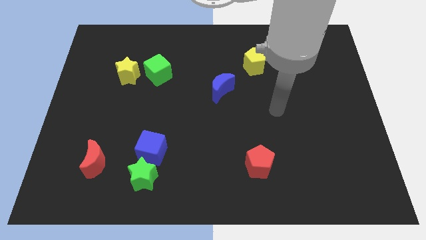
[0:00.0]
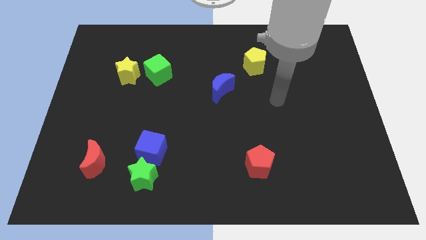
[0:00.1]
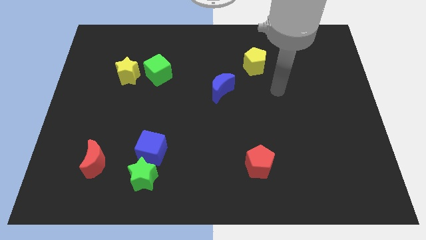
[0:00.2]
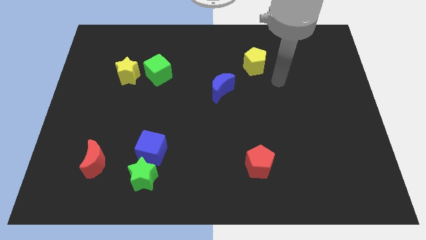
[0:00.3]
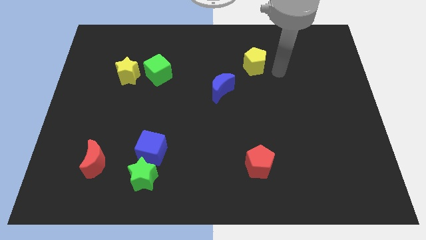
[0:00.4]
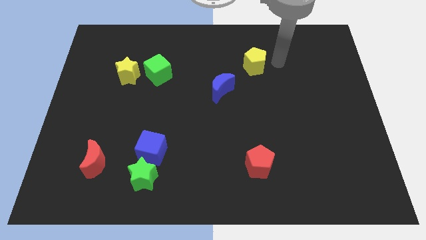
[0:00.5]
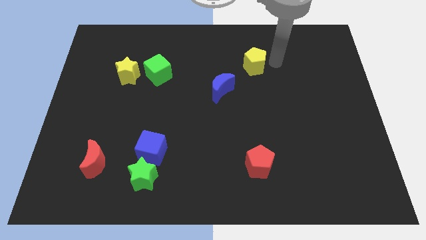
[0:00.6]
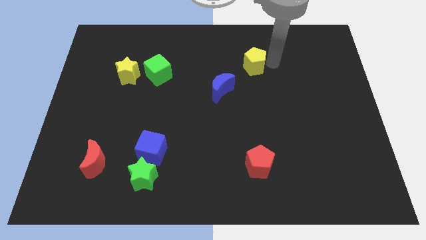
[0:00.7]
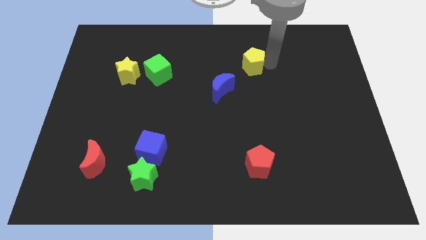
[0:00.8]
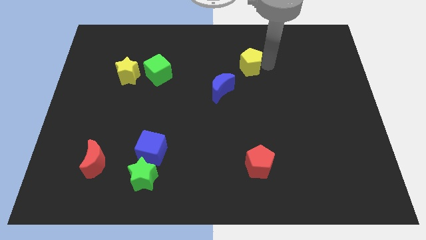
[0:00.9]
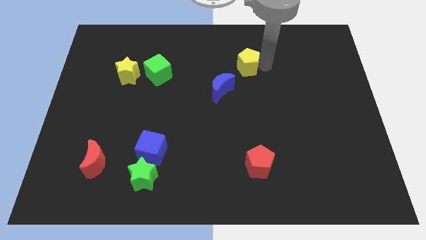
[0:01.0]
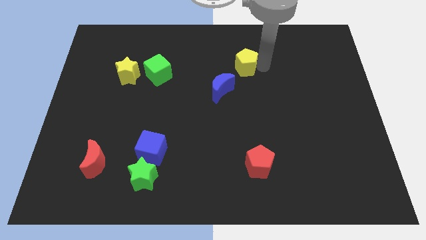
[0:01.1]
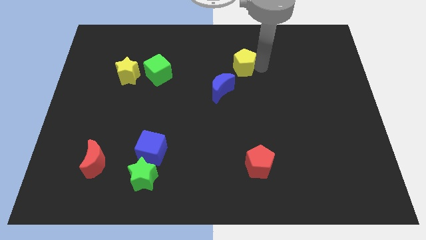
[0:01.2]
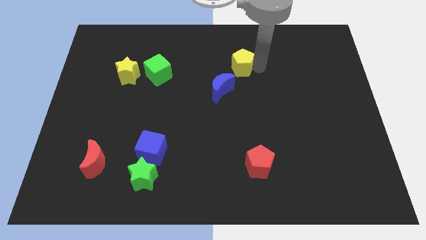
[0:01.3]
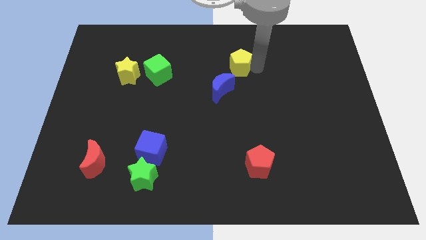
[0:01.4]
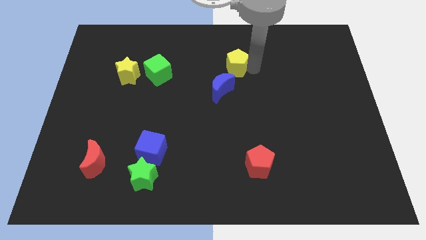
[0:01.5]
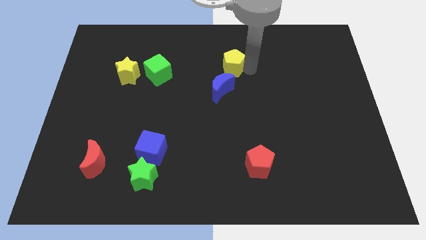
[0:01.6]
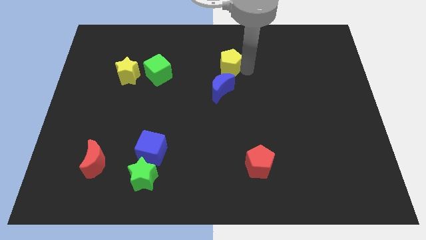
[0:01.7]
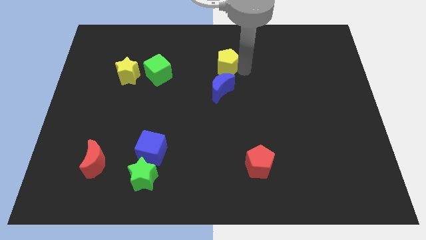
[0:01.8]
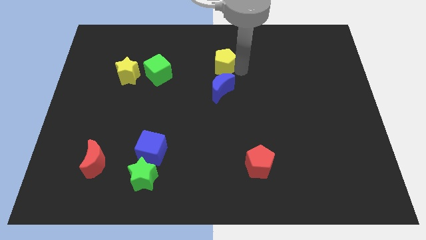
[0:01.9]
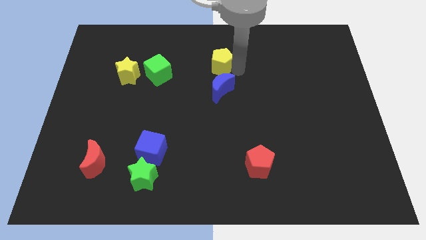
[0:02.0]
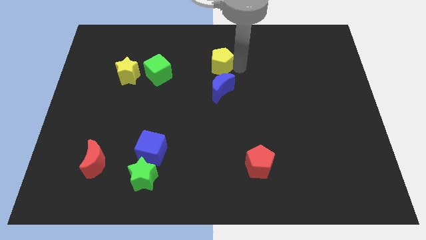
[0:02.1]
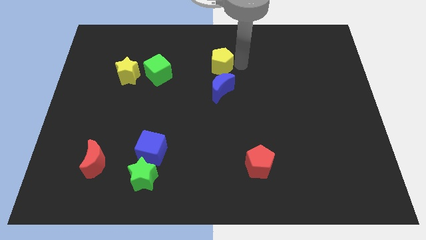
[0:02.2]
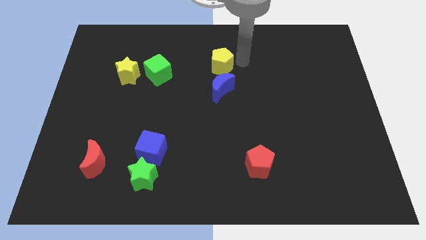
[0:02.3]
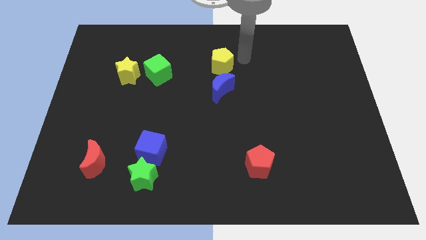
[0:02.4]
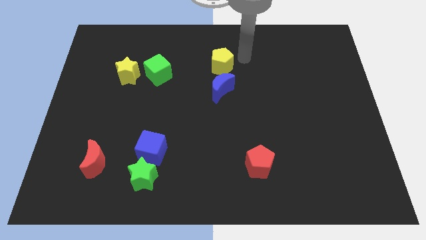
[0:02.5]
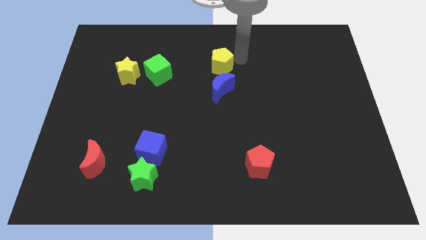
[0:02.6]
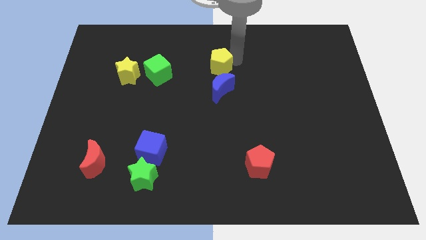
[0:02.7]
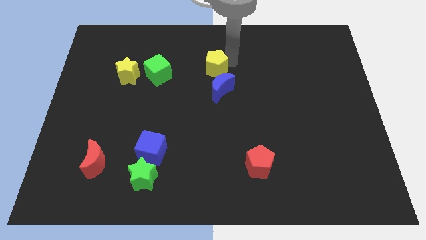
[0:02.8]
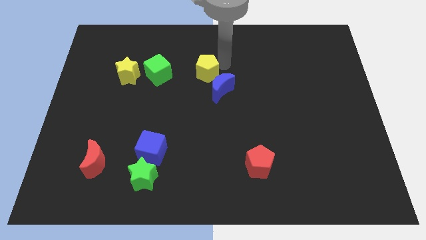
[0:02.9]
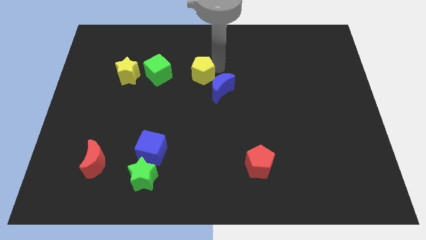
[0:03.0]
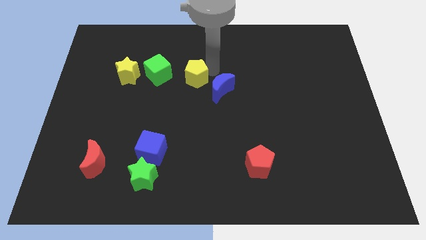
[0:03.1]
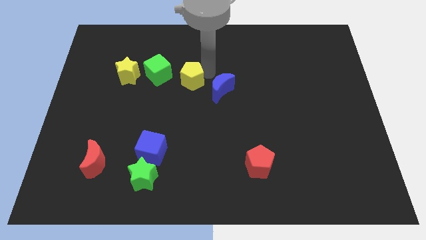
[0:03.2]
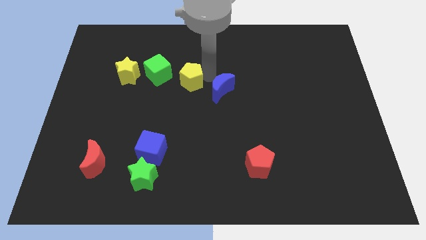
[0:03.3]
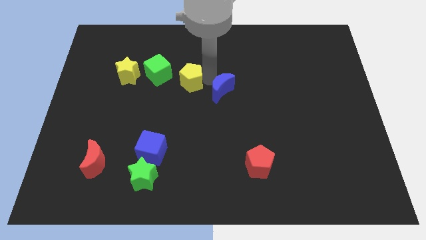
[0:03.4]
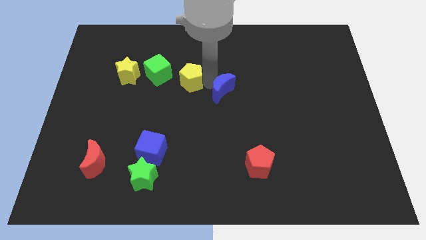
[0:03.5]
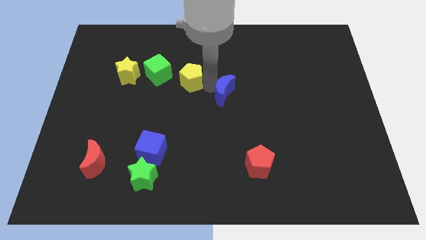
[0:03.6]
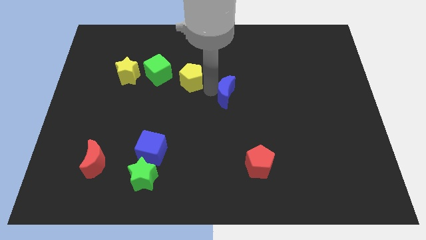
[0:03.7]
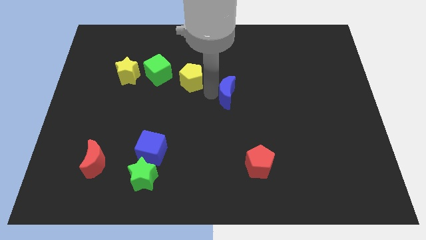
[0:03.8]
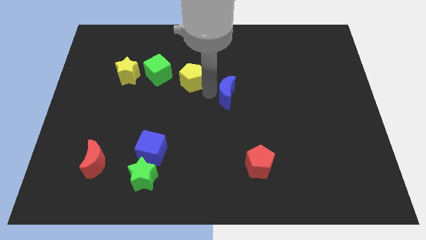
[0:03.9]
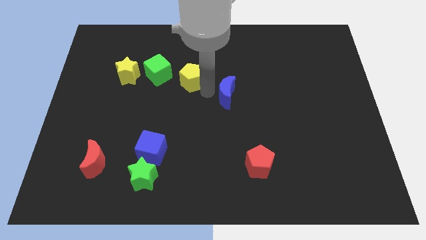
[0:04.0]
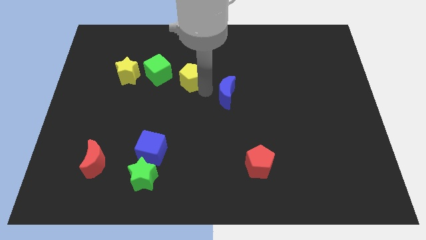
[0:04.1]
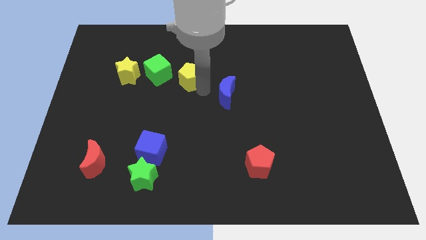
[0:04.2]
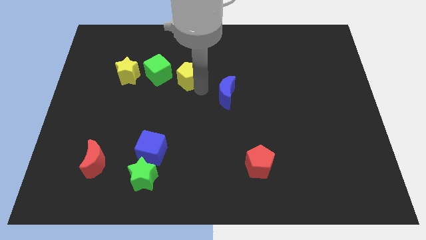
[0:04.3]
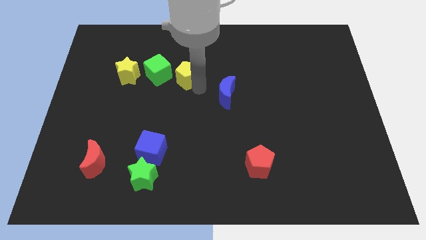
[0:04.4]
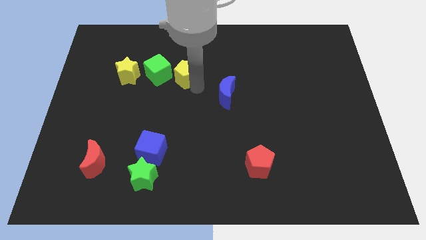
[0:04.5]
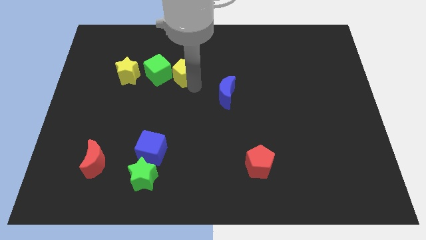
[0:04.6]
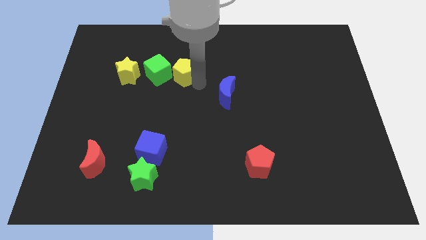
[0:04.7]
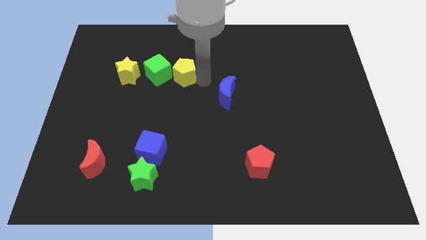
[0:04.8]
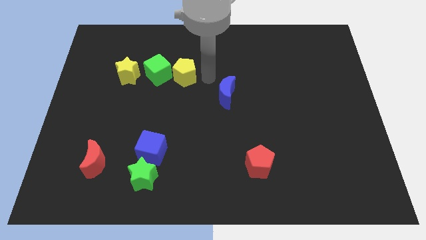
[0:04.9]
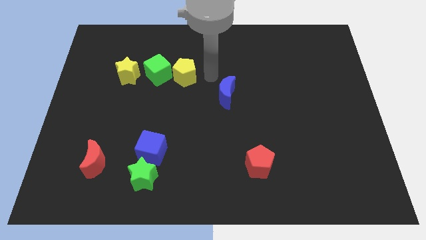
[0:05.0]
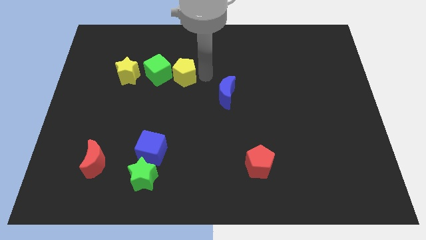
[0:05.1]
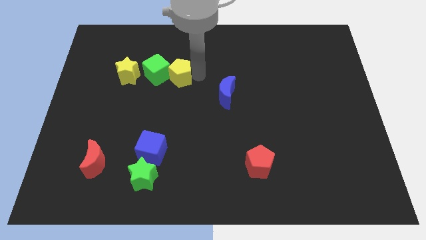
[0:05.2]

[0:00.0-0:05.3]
slide the yellow pentagon to the green cube

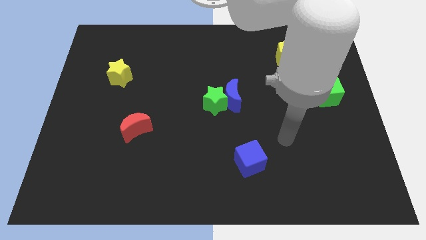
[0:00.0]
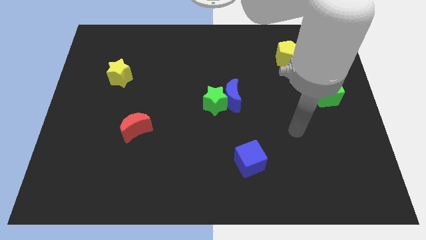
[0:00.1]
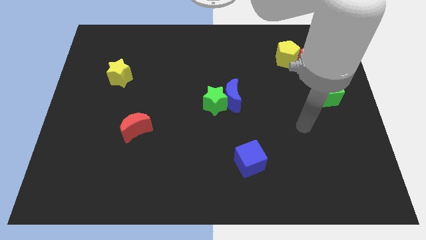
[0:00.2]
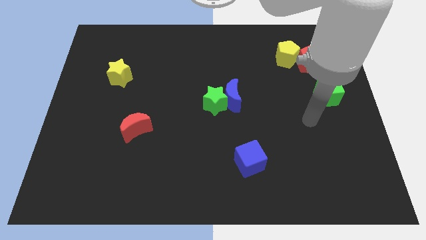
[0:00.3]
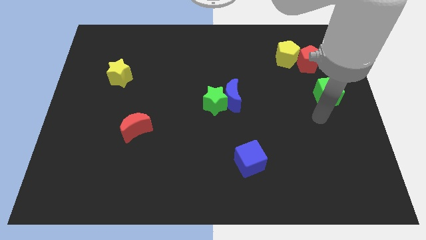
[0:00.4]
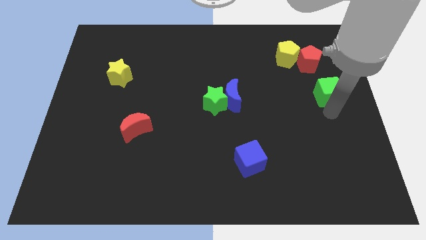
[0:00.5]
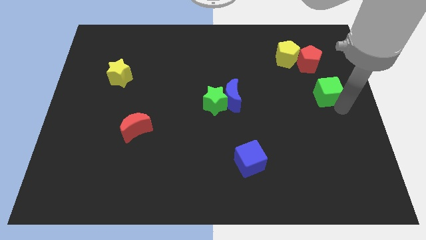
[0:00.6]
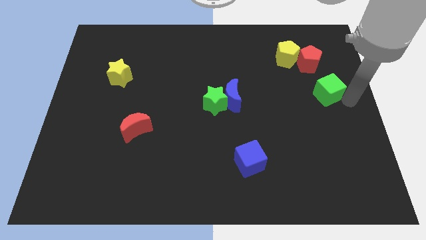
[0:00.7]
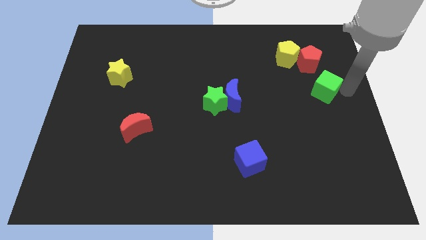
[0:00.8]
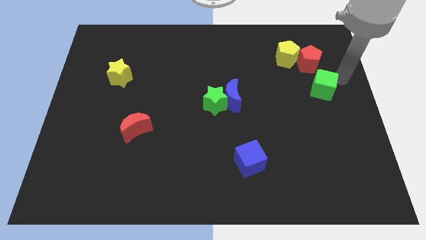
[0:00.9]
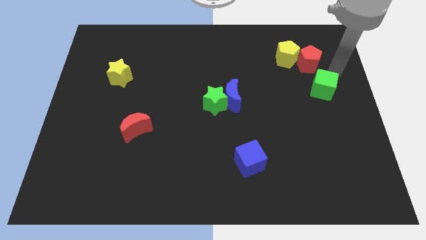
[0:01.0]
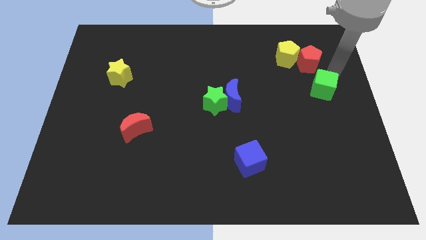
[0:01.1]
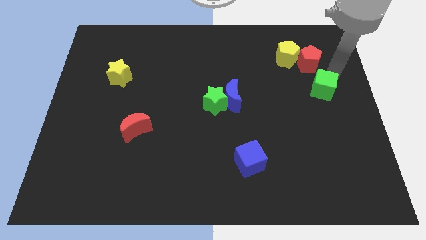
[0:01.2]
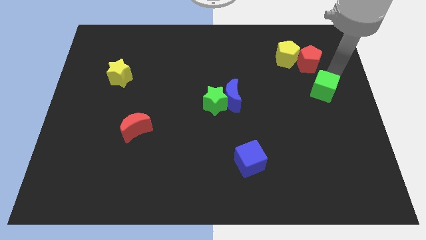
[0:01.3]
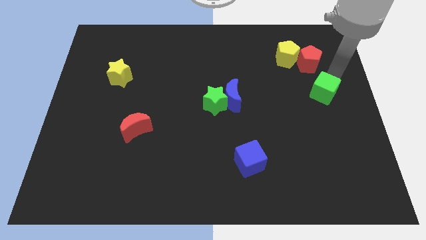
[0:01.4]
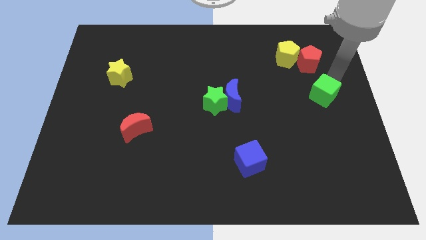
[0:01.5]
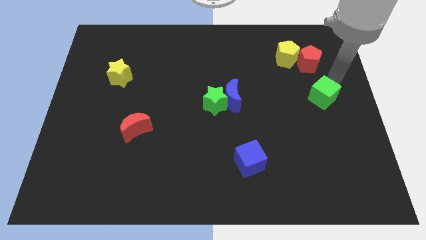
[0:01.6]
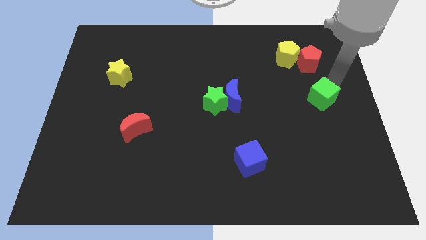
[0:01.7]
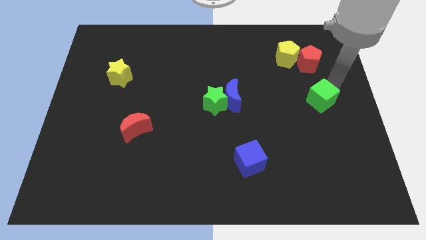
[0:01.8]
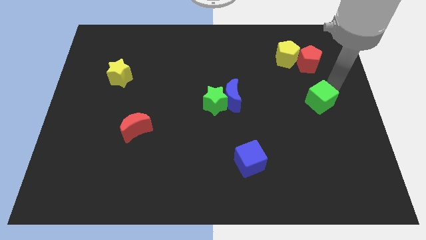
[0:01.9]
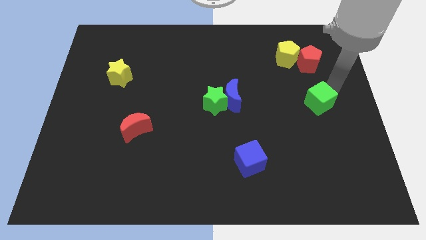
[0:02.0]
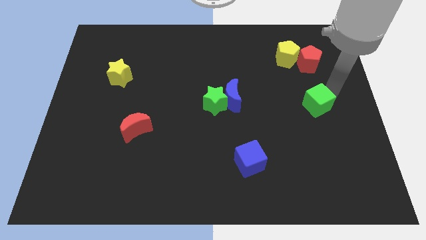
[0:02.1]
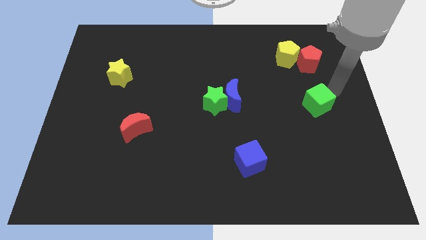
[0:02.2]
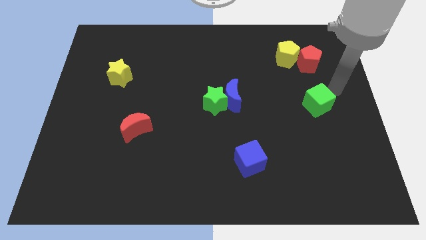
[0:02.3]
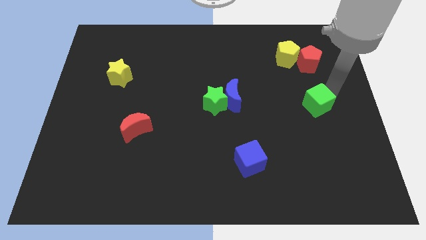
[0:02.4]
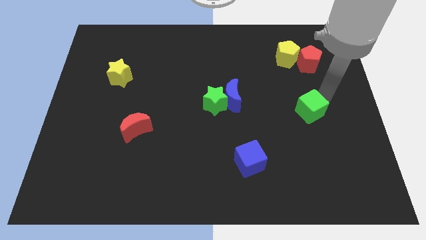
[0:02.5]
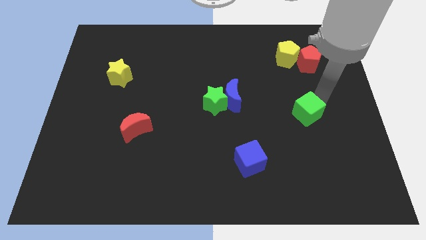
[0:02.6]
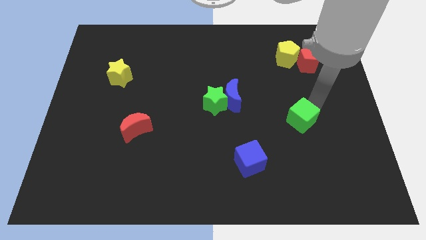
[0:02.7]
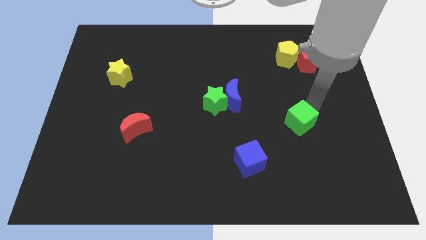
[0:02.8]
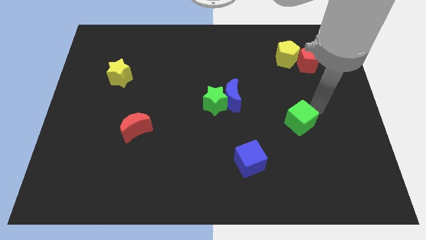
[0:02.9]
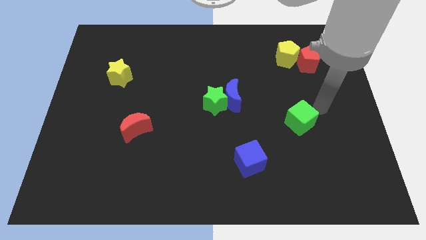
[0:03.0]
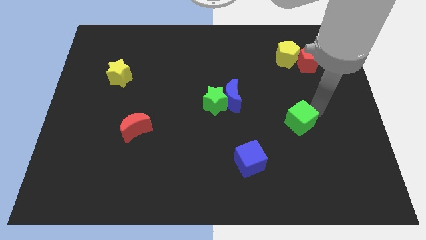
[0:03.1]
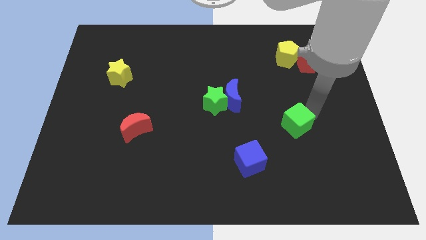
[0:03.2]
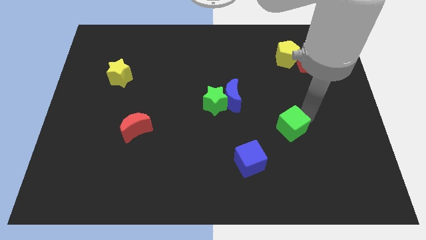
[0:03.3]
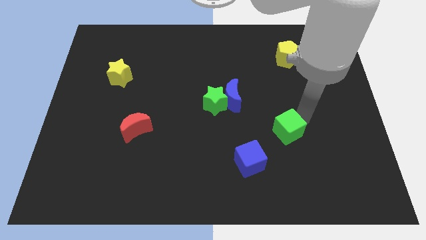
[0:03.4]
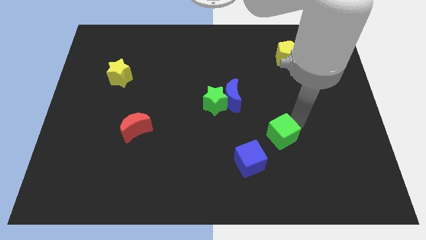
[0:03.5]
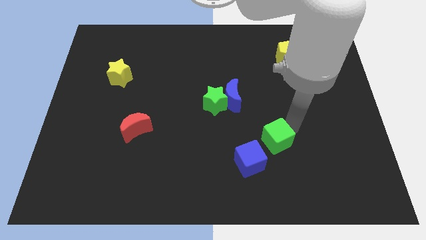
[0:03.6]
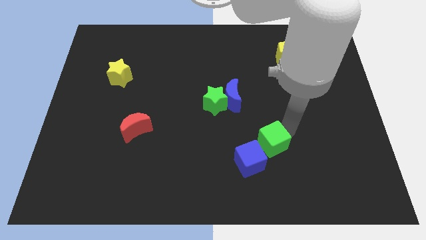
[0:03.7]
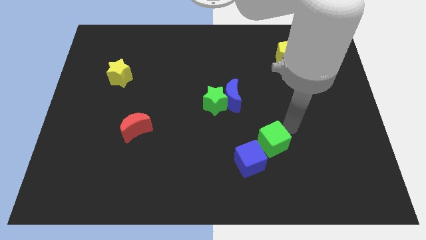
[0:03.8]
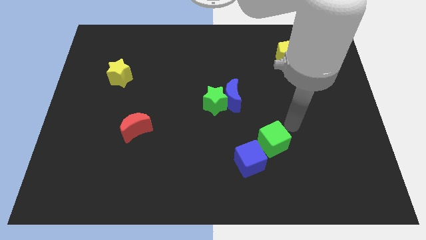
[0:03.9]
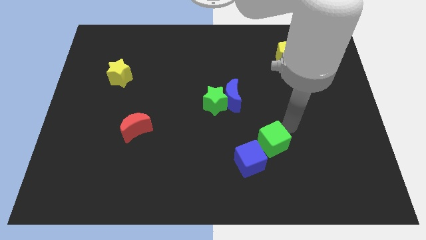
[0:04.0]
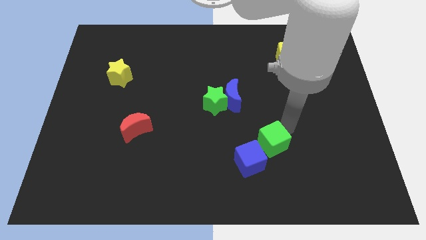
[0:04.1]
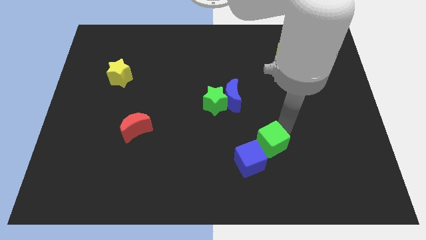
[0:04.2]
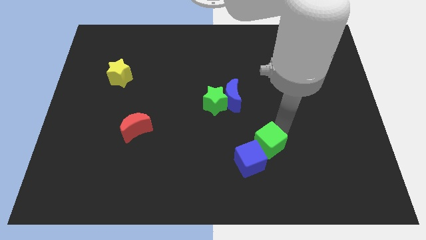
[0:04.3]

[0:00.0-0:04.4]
move the green cube to the blue cube
